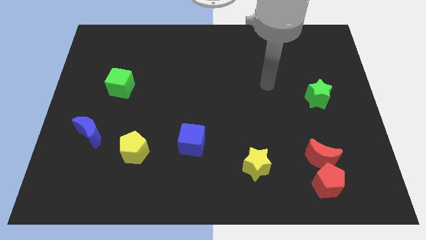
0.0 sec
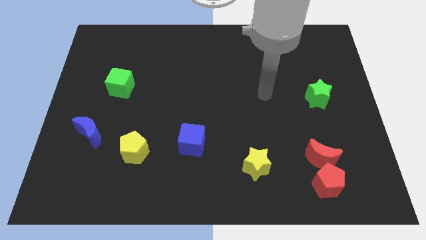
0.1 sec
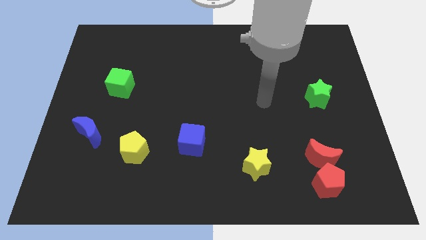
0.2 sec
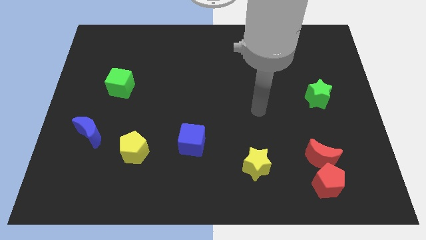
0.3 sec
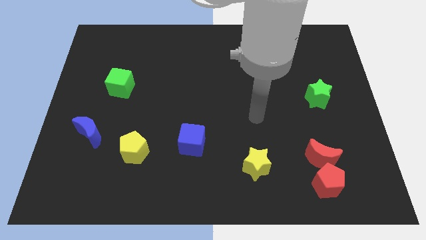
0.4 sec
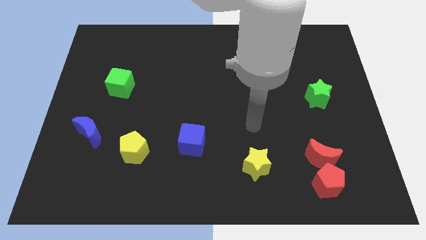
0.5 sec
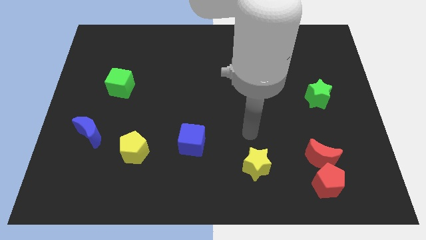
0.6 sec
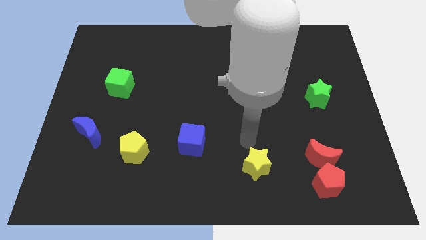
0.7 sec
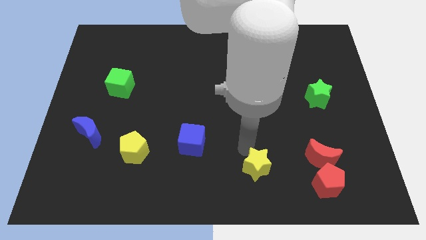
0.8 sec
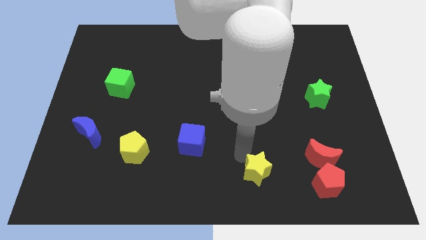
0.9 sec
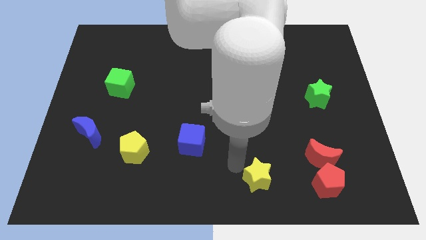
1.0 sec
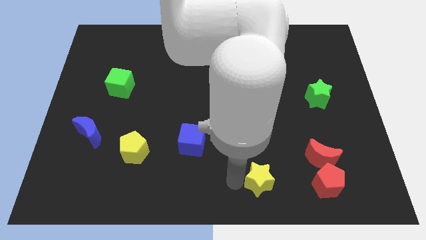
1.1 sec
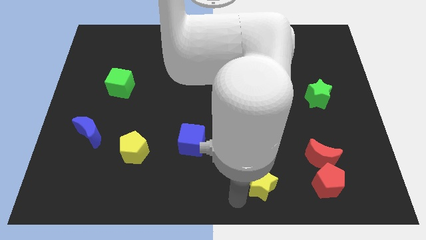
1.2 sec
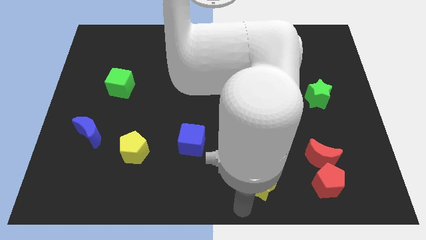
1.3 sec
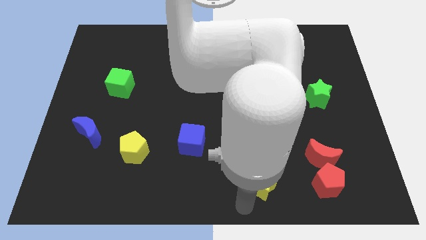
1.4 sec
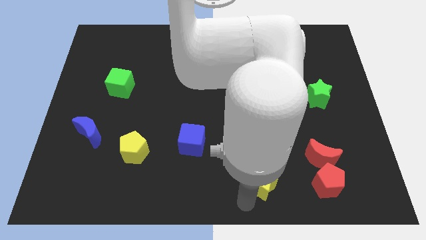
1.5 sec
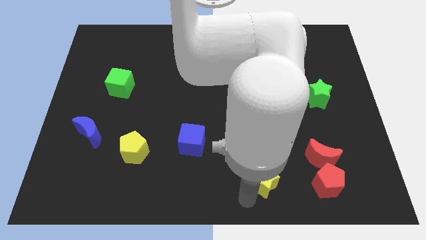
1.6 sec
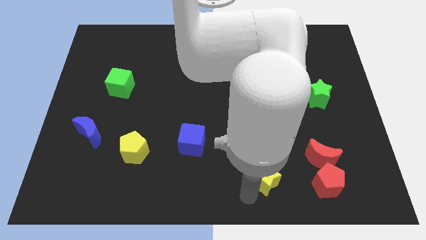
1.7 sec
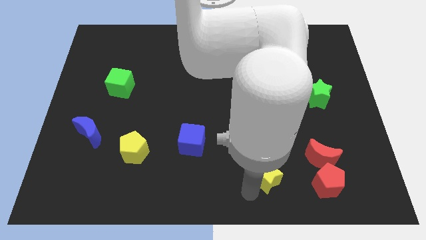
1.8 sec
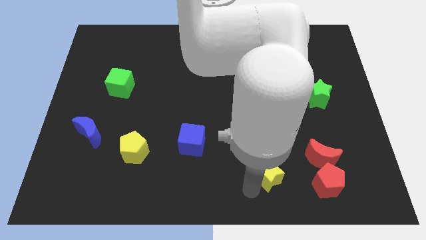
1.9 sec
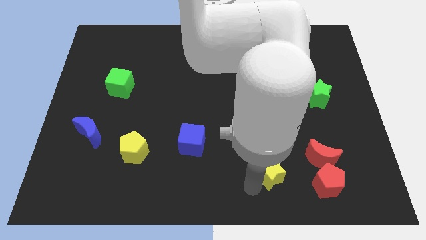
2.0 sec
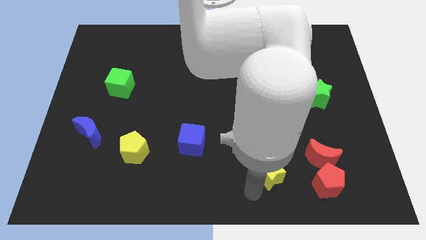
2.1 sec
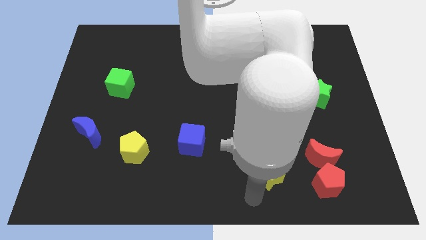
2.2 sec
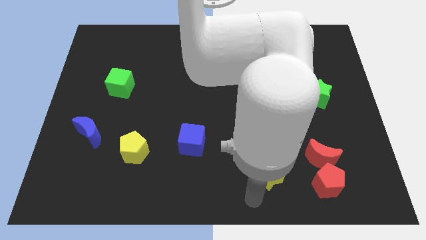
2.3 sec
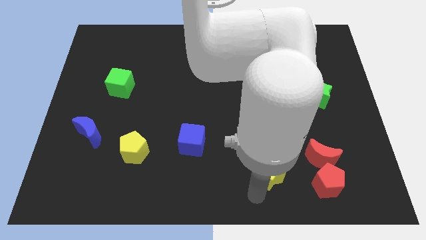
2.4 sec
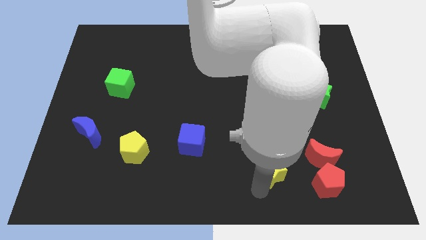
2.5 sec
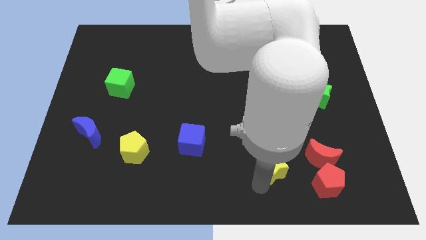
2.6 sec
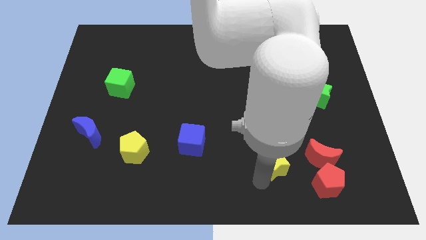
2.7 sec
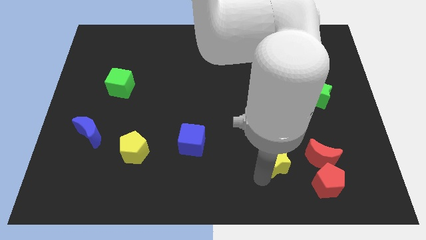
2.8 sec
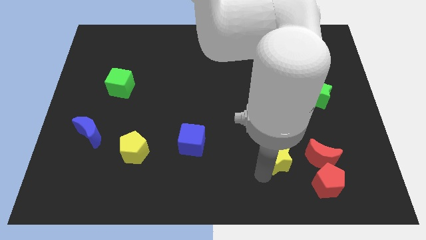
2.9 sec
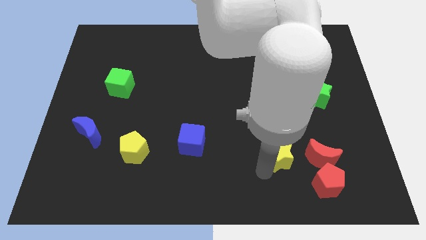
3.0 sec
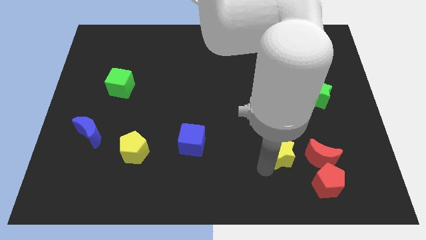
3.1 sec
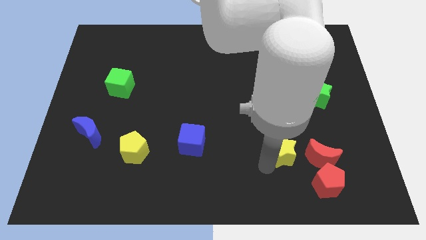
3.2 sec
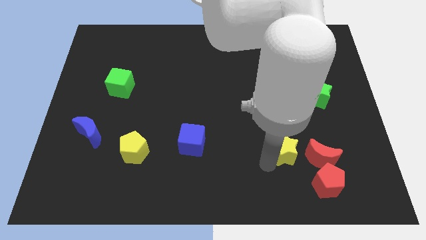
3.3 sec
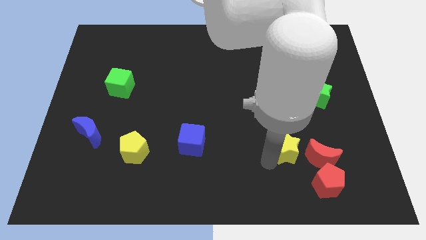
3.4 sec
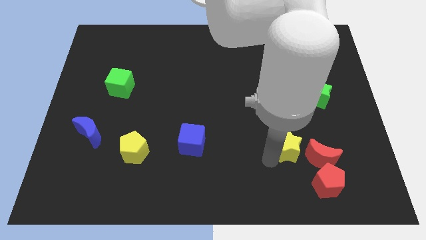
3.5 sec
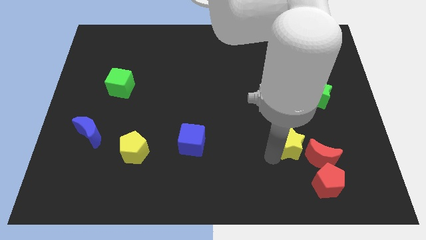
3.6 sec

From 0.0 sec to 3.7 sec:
push the yellow star a little to the right

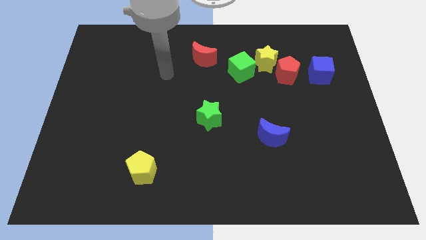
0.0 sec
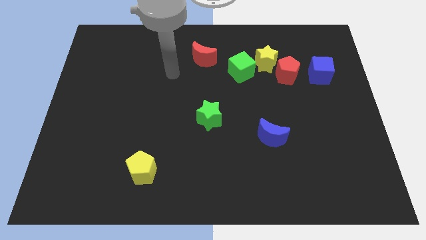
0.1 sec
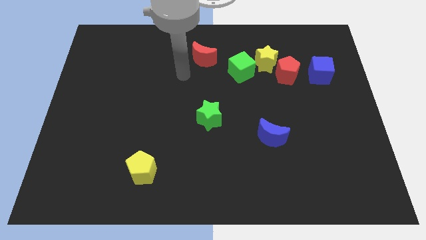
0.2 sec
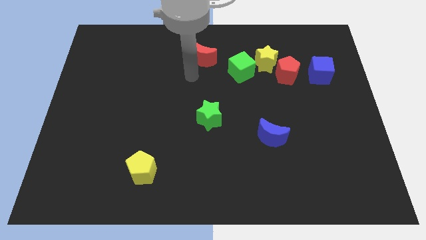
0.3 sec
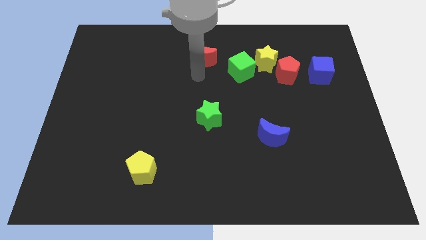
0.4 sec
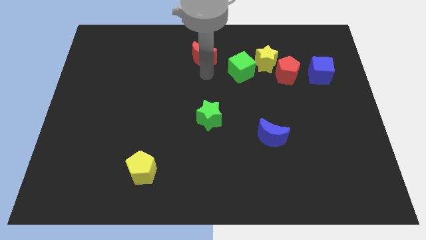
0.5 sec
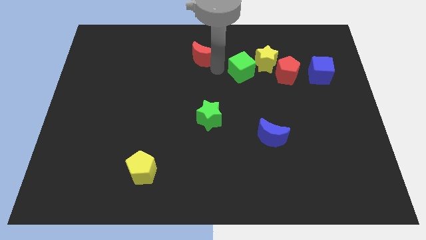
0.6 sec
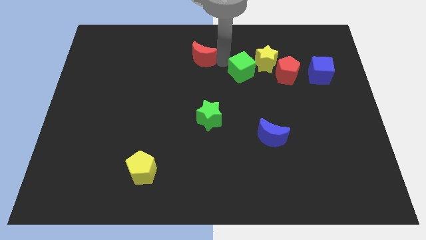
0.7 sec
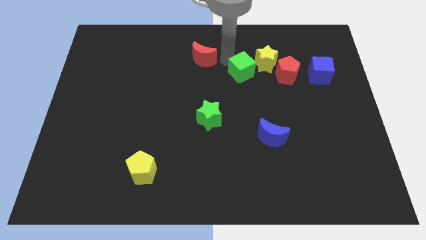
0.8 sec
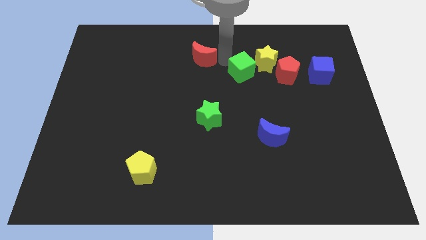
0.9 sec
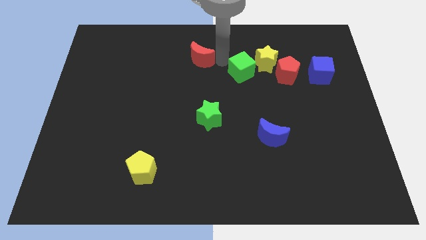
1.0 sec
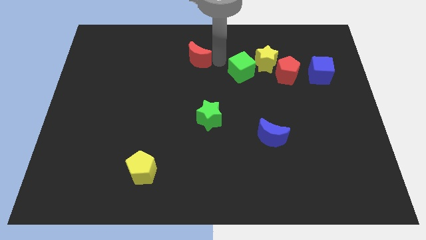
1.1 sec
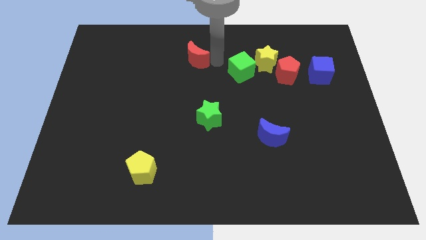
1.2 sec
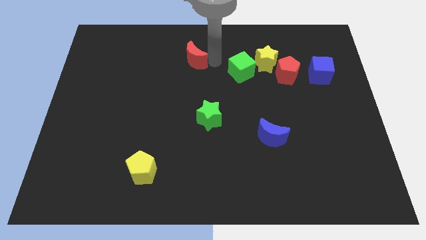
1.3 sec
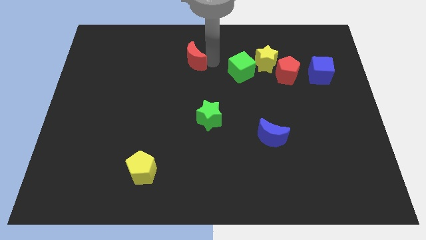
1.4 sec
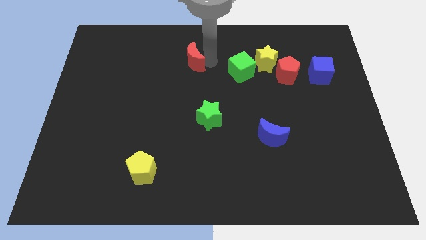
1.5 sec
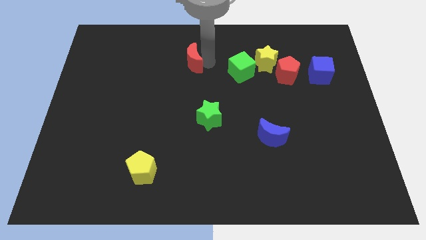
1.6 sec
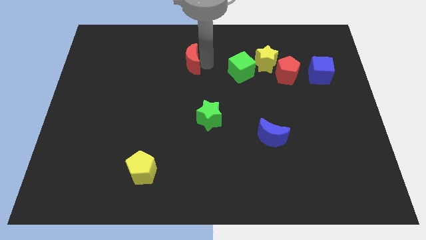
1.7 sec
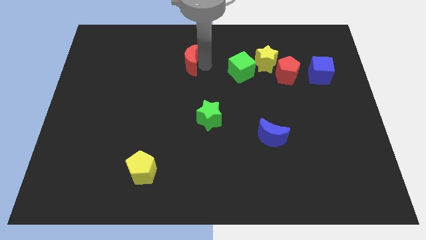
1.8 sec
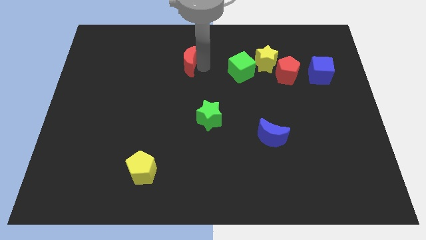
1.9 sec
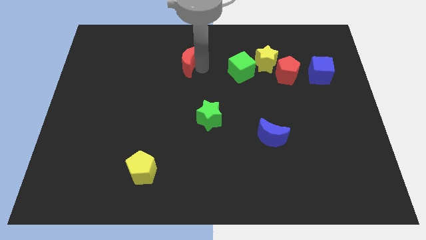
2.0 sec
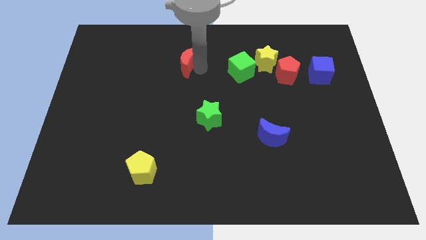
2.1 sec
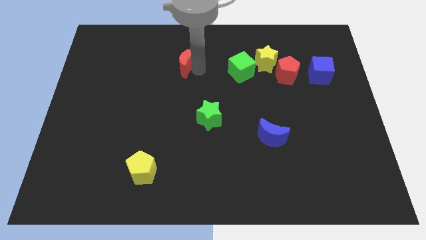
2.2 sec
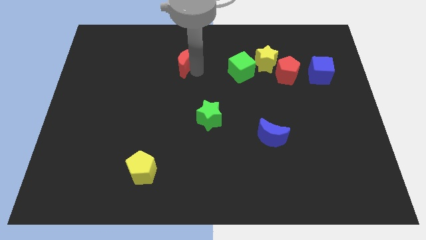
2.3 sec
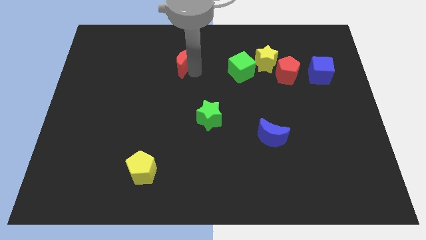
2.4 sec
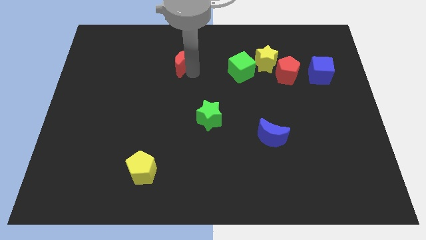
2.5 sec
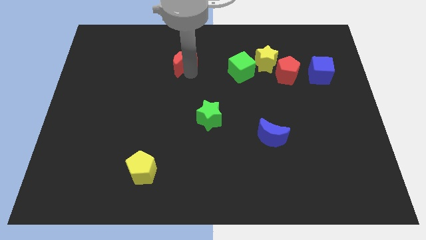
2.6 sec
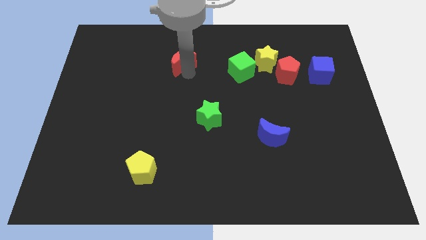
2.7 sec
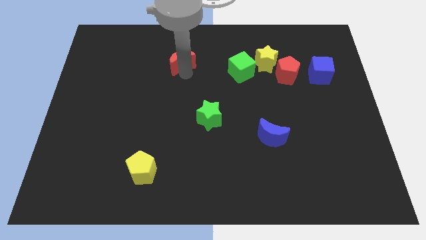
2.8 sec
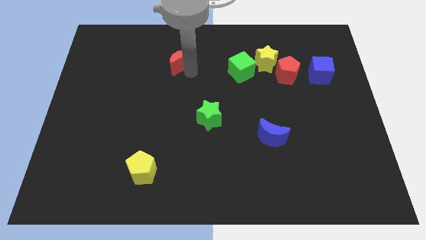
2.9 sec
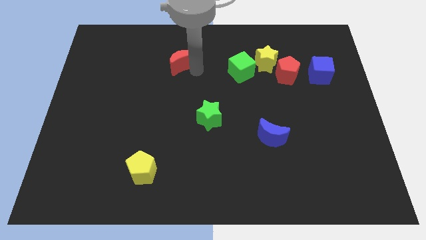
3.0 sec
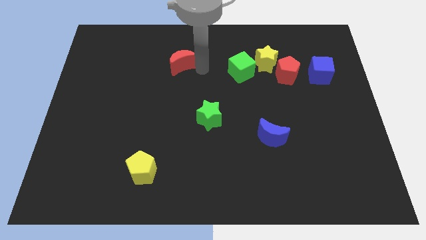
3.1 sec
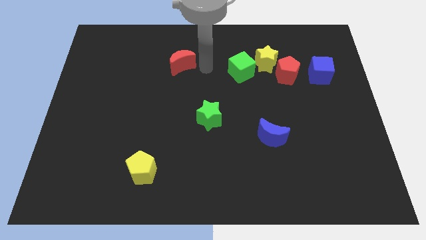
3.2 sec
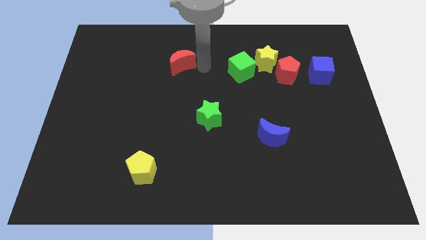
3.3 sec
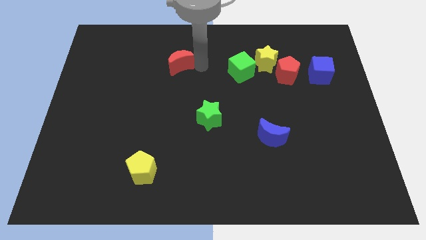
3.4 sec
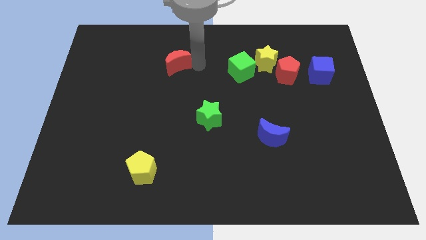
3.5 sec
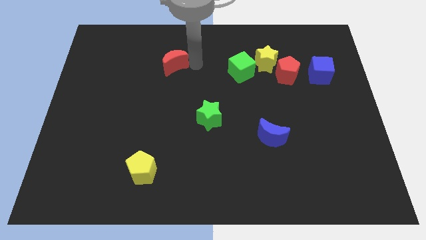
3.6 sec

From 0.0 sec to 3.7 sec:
move the red moon slightly left

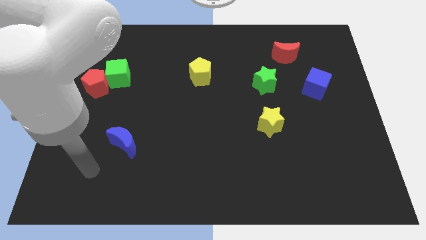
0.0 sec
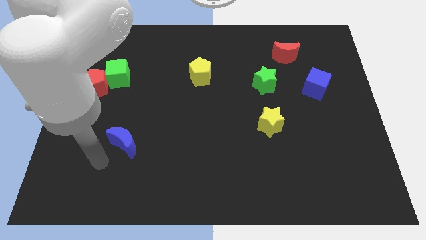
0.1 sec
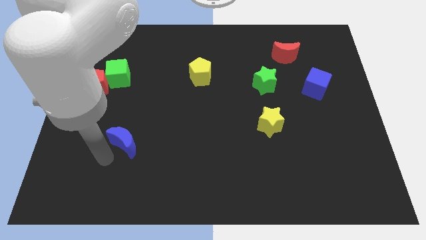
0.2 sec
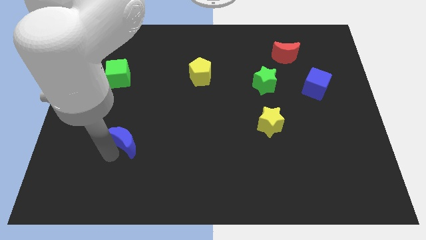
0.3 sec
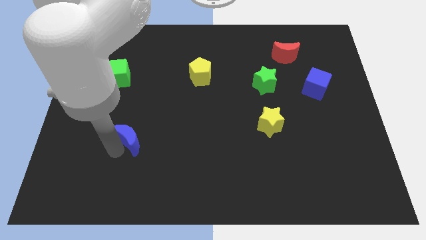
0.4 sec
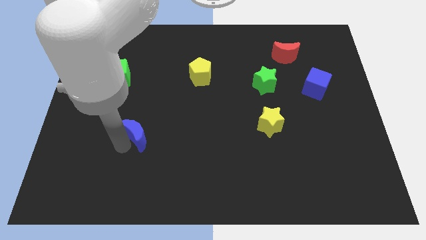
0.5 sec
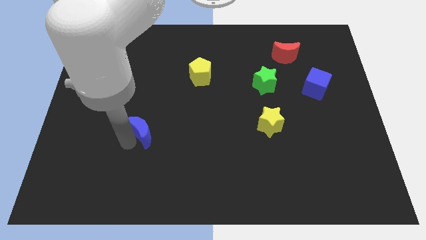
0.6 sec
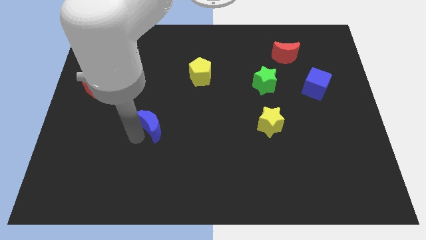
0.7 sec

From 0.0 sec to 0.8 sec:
slightly push the blue moon up and then right
